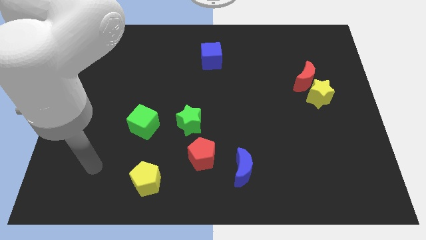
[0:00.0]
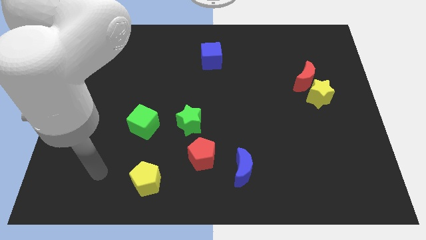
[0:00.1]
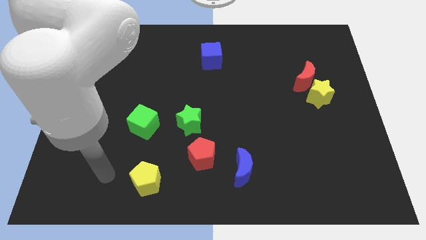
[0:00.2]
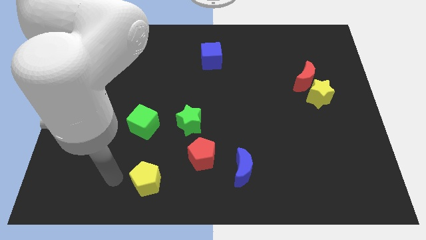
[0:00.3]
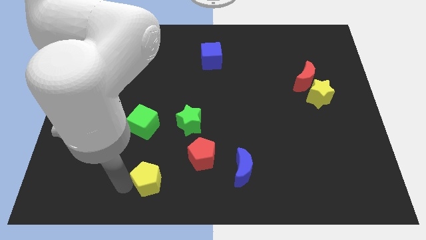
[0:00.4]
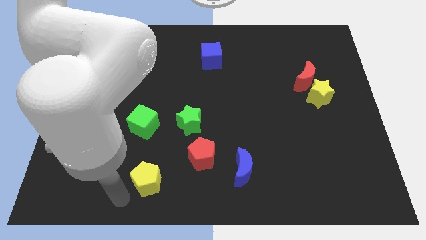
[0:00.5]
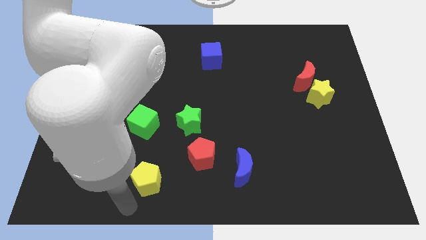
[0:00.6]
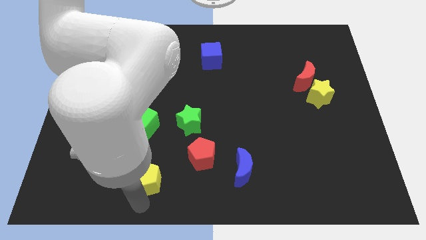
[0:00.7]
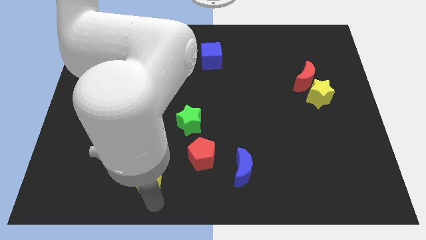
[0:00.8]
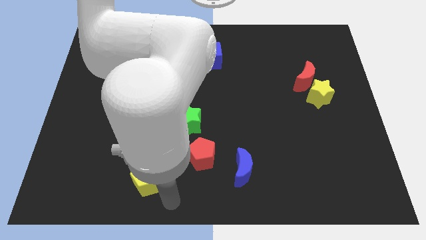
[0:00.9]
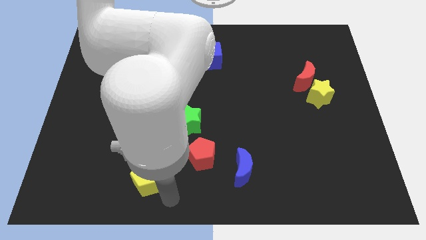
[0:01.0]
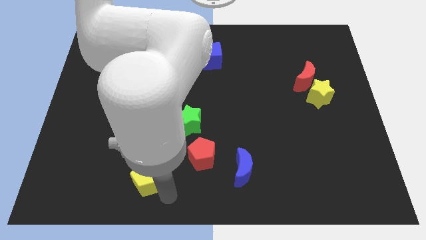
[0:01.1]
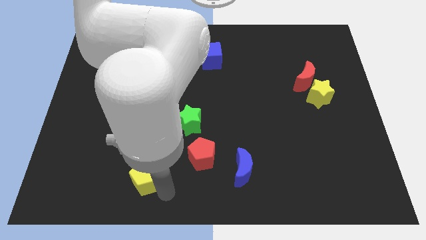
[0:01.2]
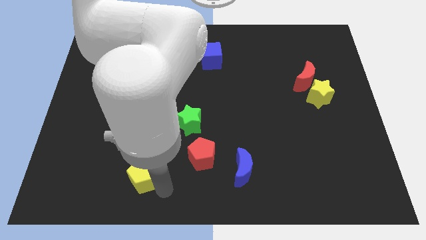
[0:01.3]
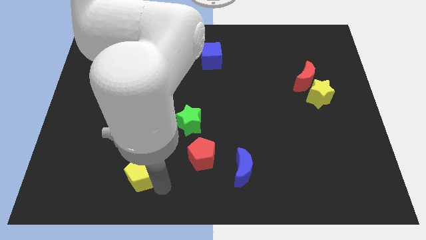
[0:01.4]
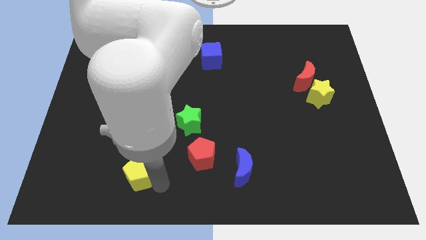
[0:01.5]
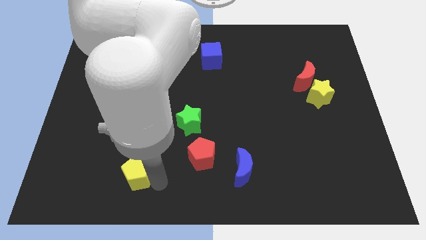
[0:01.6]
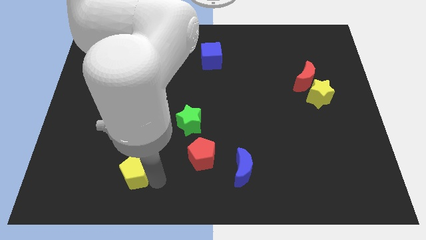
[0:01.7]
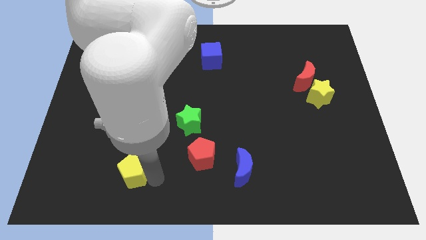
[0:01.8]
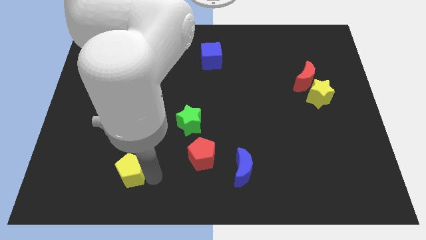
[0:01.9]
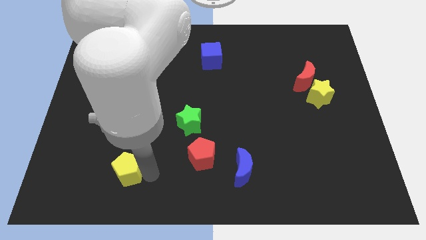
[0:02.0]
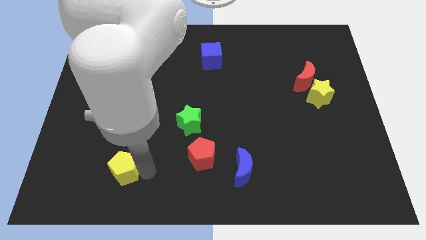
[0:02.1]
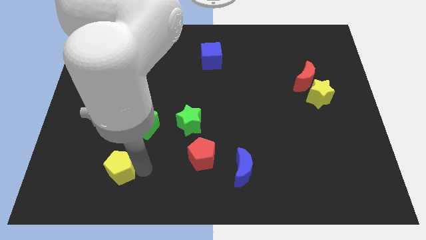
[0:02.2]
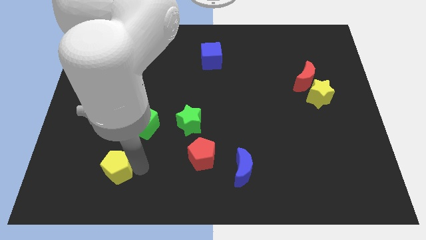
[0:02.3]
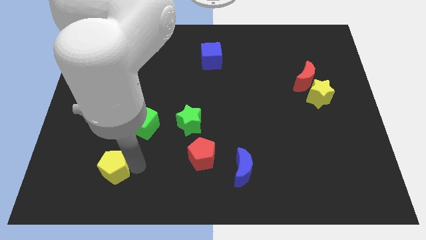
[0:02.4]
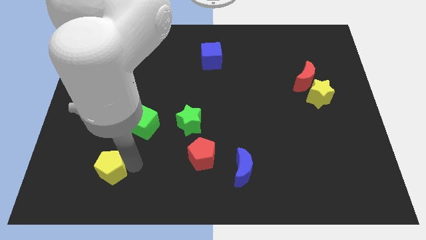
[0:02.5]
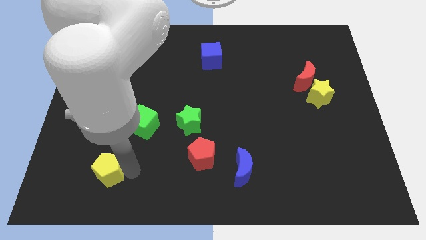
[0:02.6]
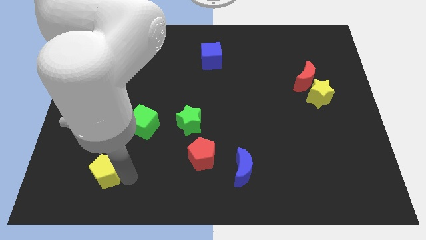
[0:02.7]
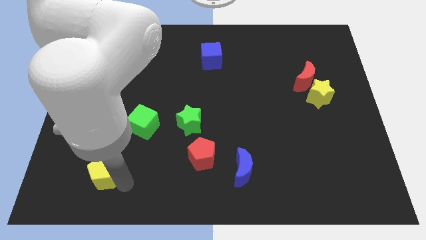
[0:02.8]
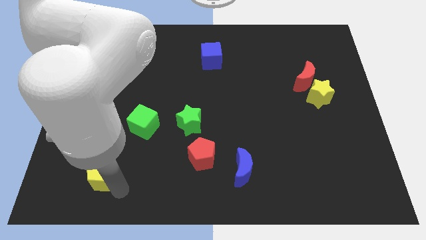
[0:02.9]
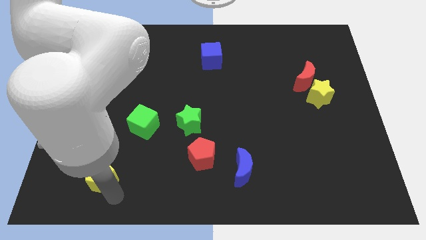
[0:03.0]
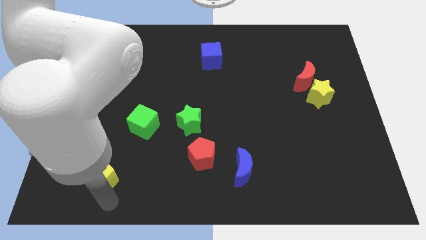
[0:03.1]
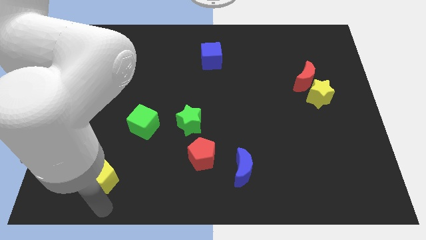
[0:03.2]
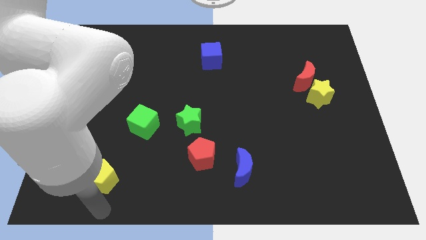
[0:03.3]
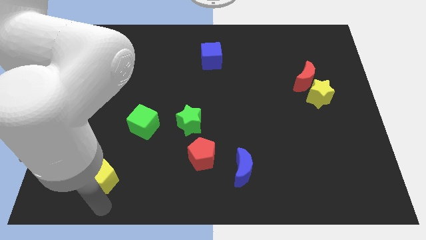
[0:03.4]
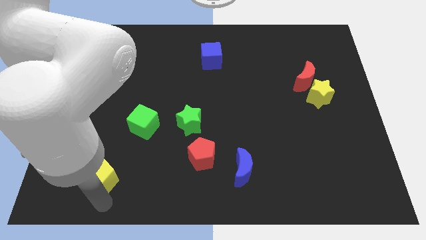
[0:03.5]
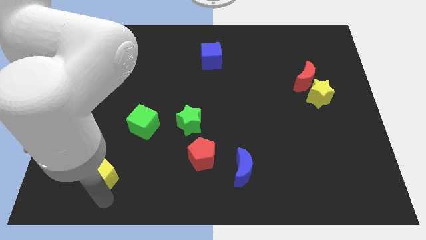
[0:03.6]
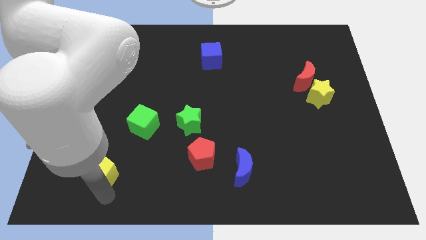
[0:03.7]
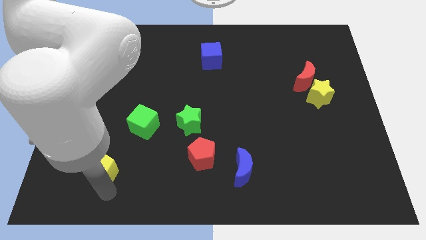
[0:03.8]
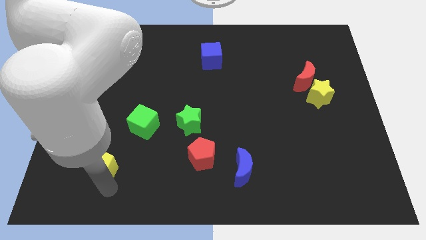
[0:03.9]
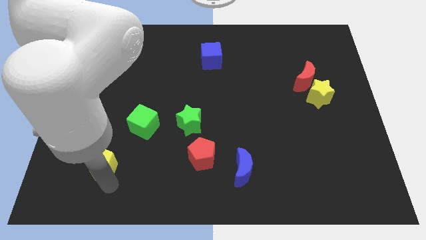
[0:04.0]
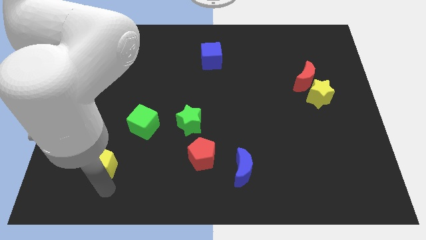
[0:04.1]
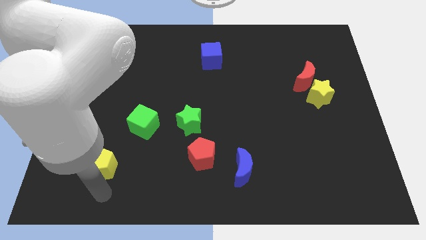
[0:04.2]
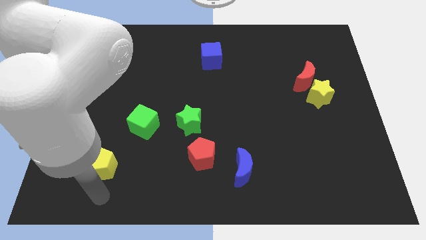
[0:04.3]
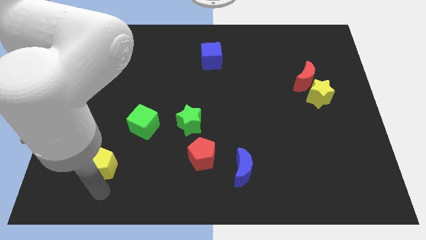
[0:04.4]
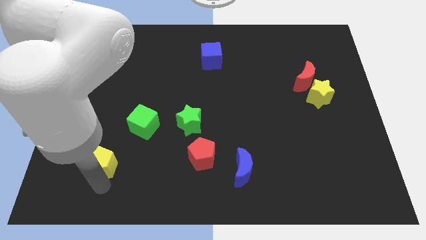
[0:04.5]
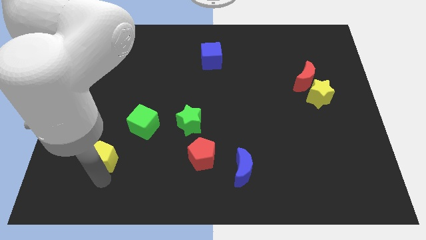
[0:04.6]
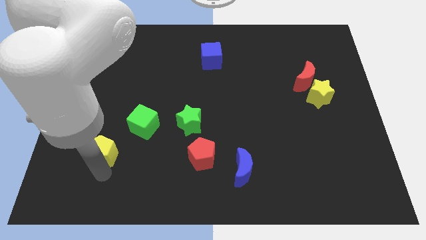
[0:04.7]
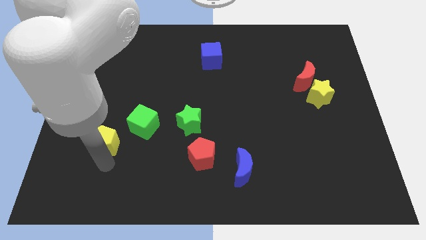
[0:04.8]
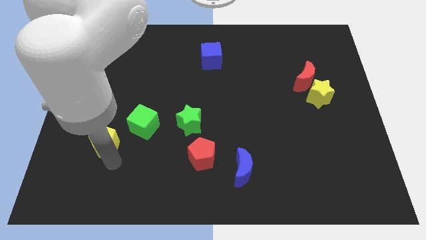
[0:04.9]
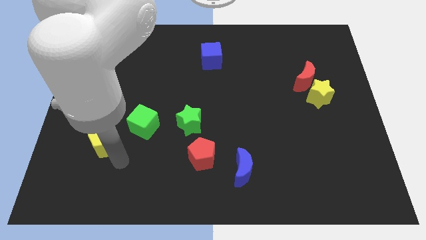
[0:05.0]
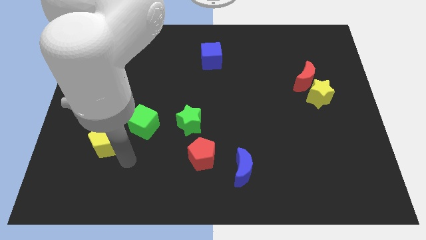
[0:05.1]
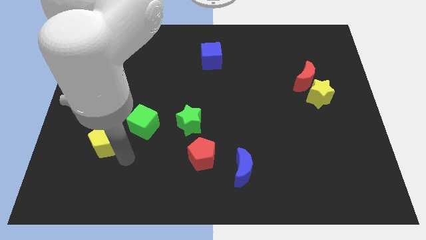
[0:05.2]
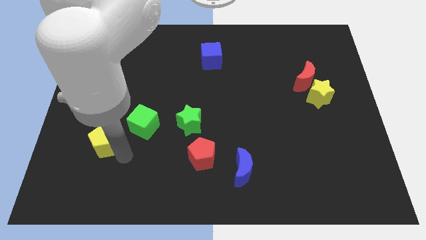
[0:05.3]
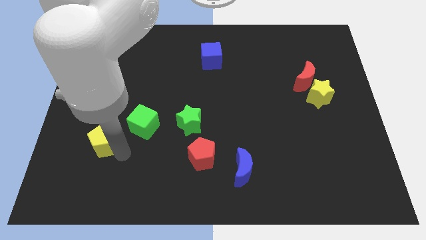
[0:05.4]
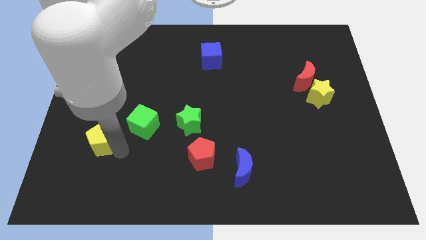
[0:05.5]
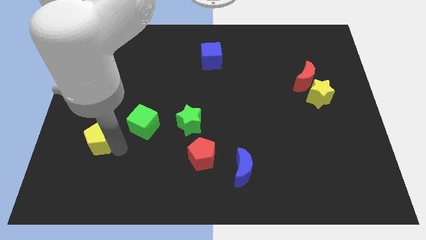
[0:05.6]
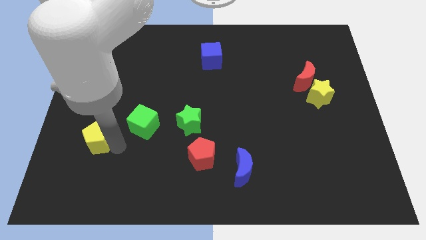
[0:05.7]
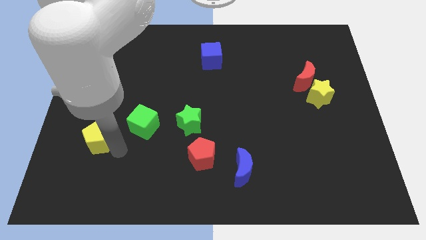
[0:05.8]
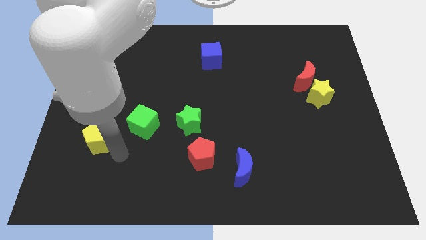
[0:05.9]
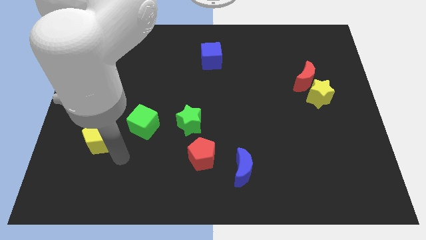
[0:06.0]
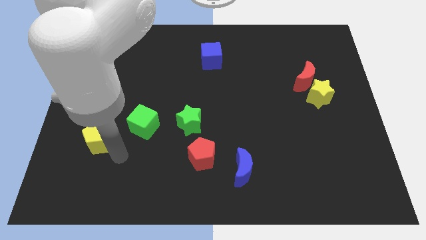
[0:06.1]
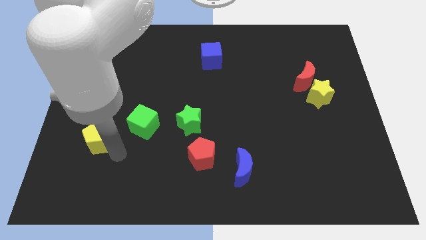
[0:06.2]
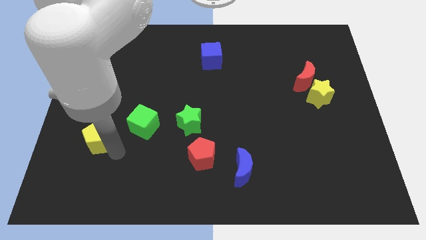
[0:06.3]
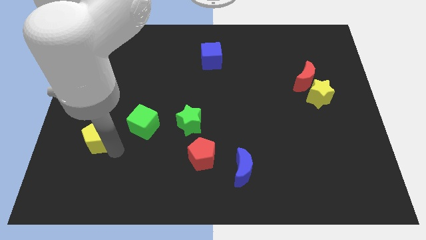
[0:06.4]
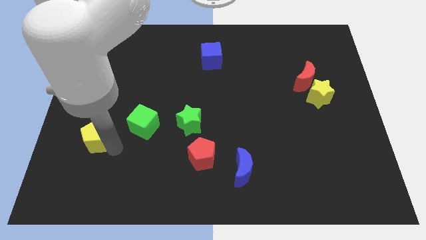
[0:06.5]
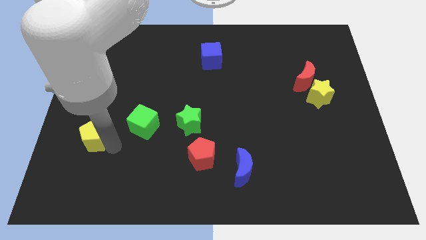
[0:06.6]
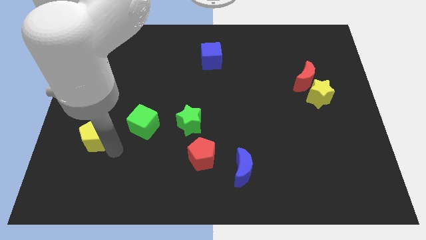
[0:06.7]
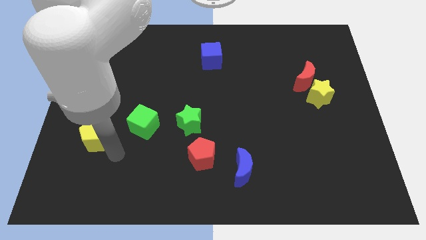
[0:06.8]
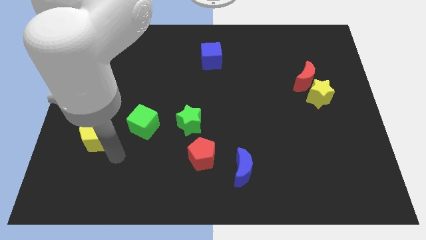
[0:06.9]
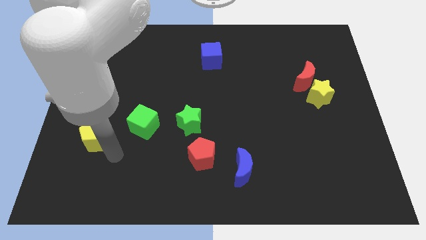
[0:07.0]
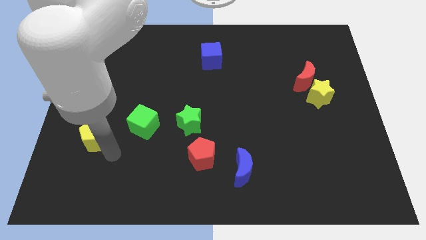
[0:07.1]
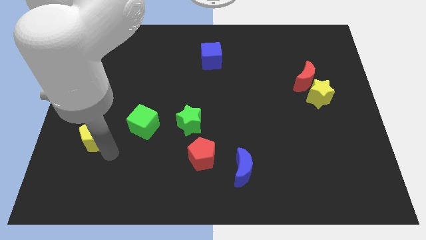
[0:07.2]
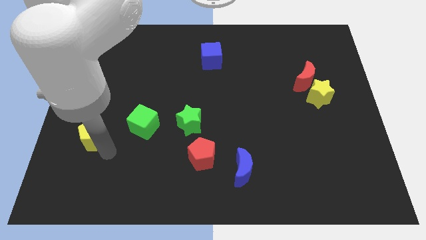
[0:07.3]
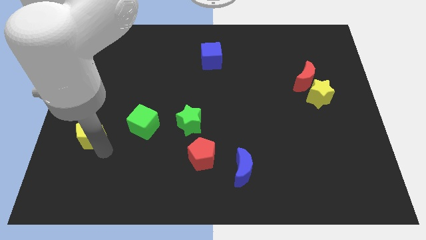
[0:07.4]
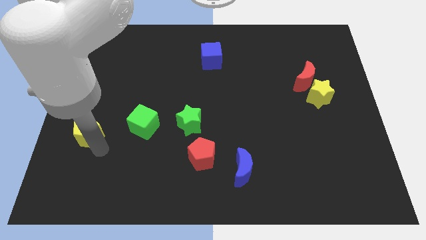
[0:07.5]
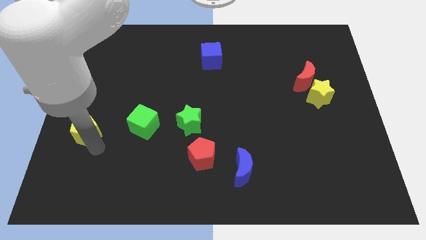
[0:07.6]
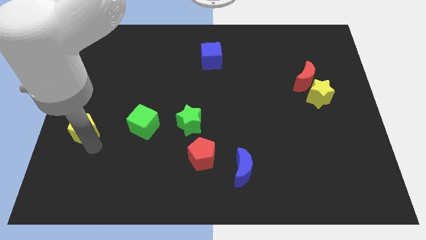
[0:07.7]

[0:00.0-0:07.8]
push the yellow pentagon to the center left
